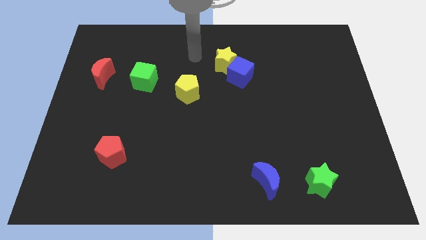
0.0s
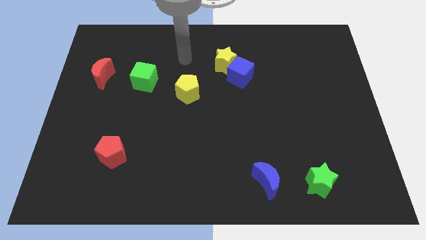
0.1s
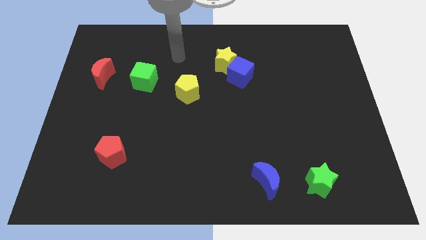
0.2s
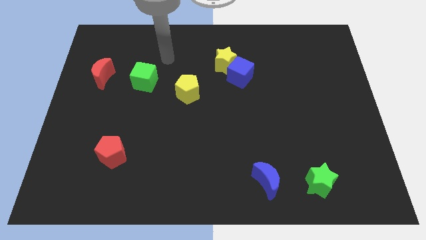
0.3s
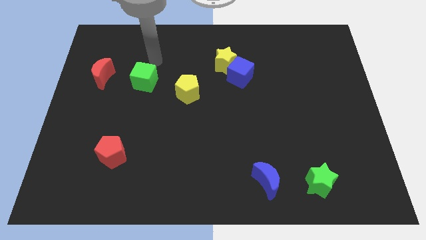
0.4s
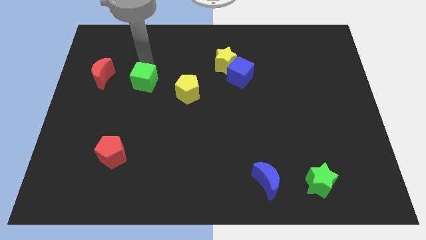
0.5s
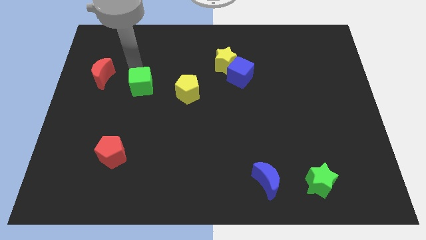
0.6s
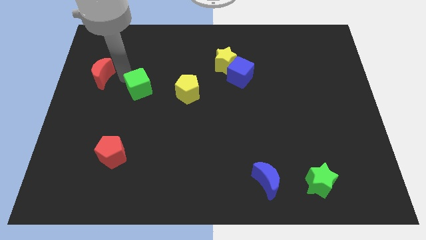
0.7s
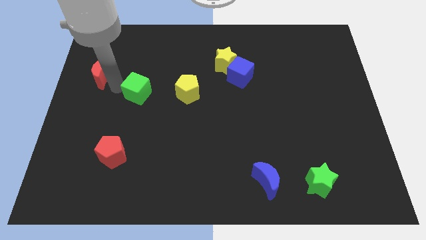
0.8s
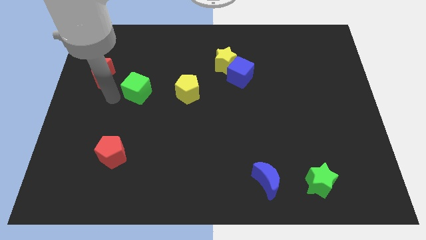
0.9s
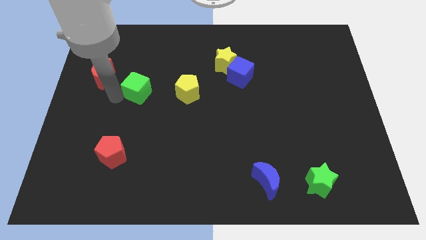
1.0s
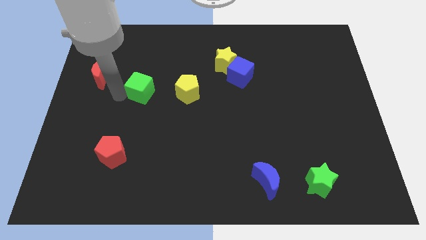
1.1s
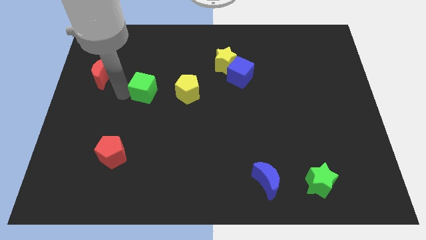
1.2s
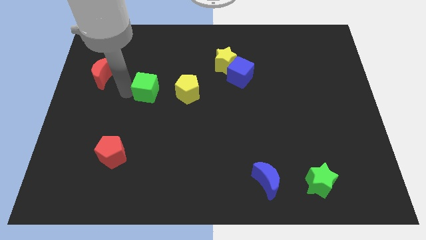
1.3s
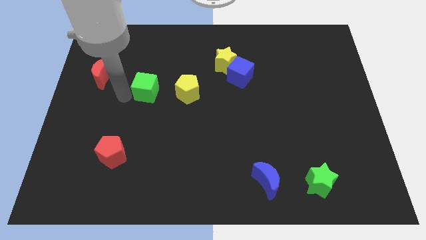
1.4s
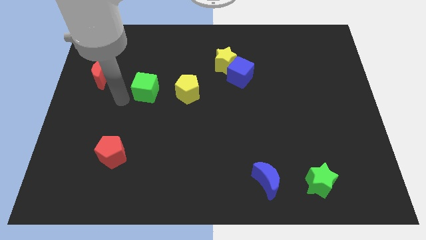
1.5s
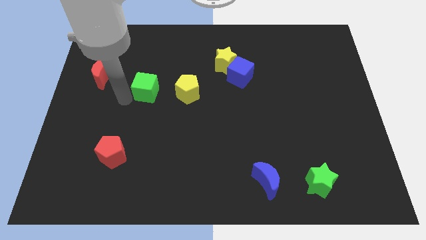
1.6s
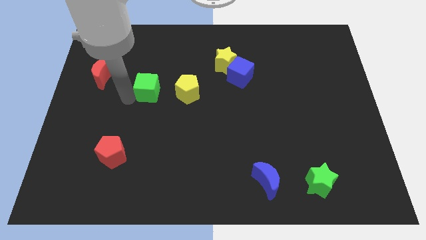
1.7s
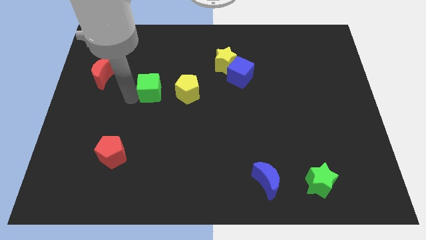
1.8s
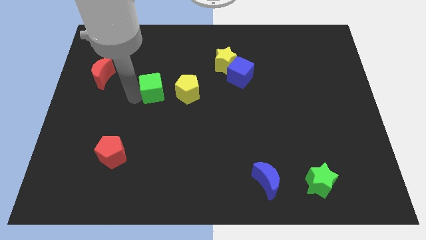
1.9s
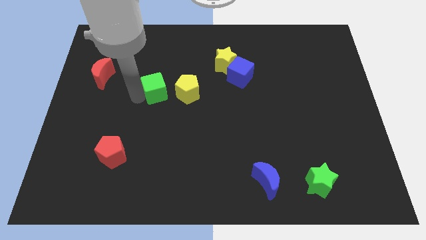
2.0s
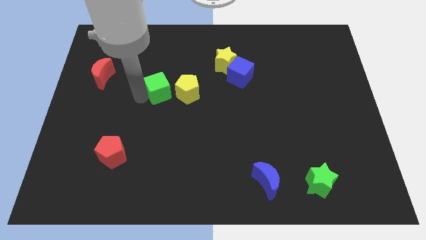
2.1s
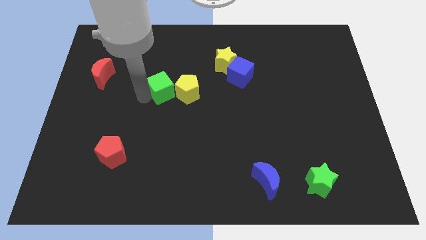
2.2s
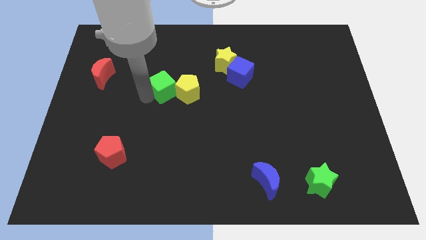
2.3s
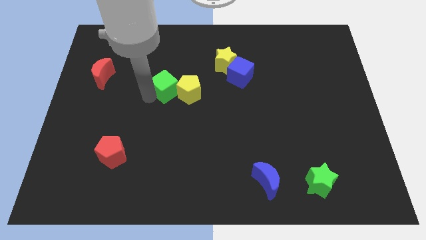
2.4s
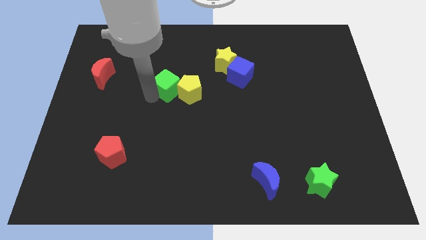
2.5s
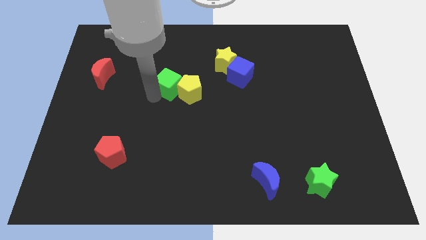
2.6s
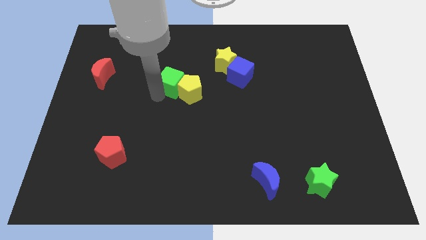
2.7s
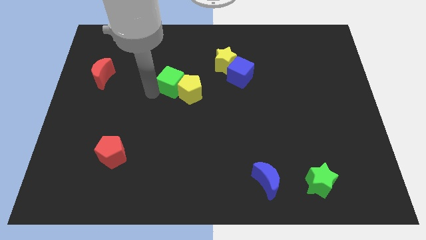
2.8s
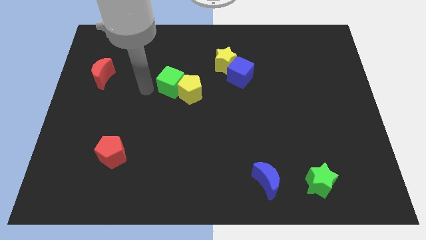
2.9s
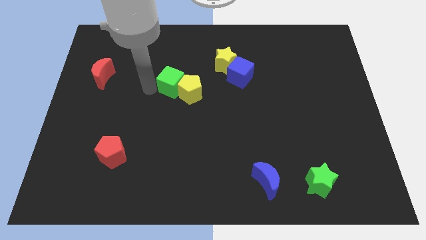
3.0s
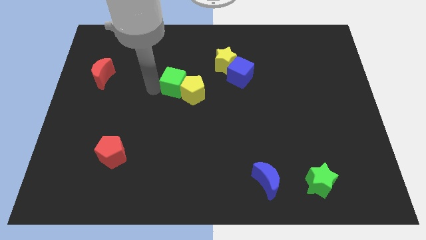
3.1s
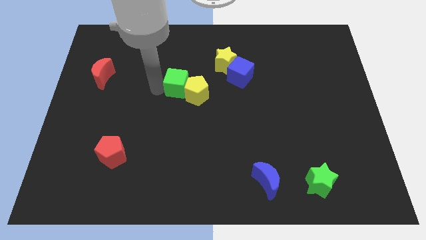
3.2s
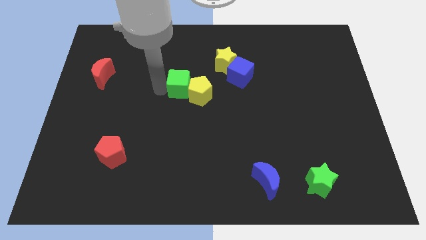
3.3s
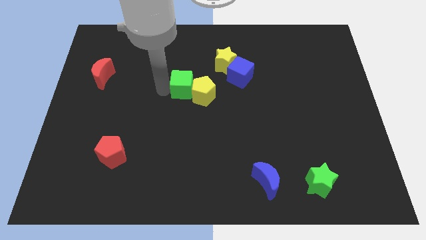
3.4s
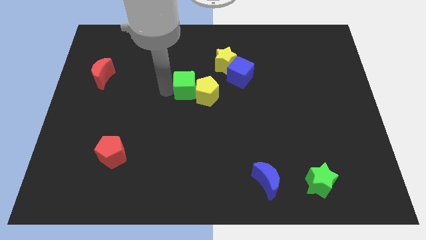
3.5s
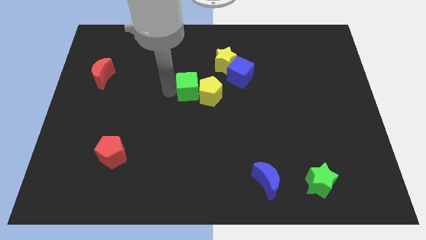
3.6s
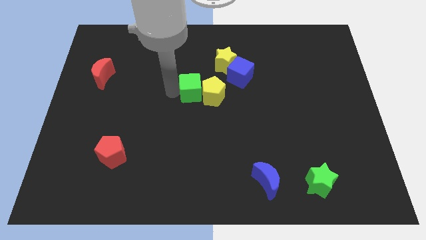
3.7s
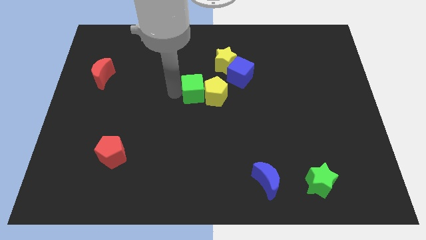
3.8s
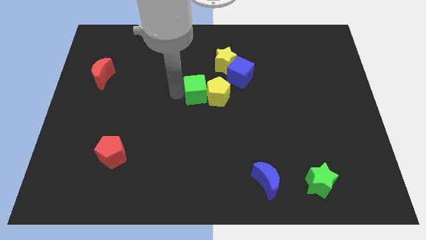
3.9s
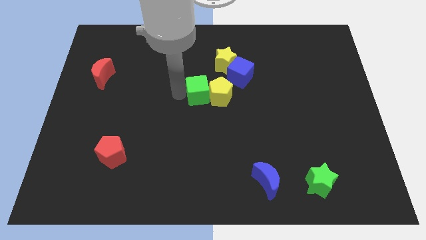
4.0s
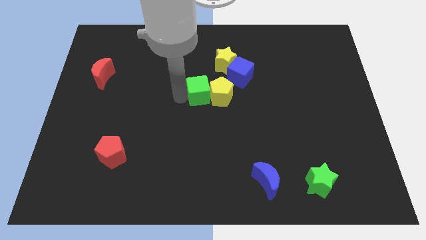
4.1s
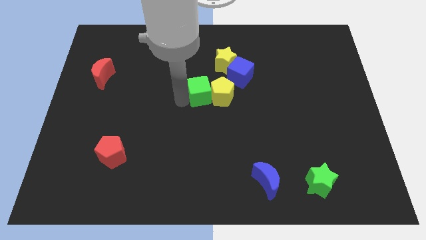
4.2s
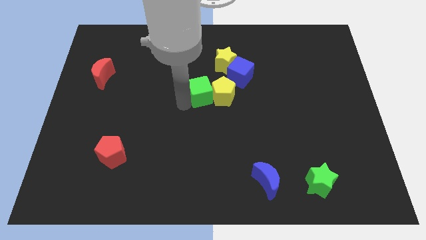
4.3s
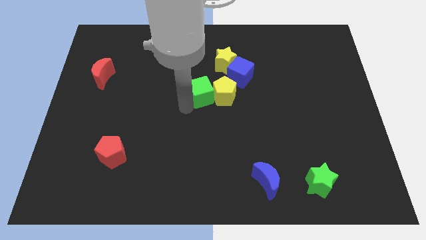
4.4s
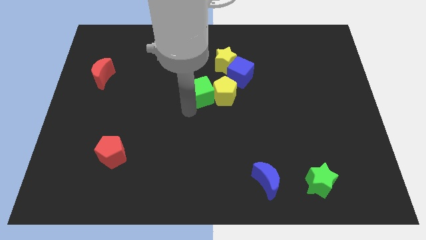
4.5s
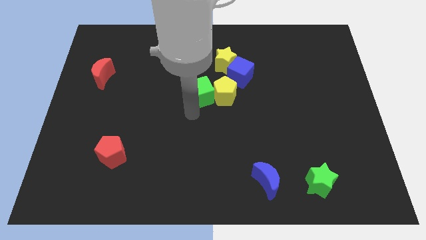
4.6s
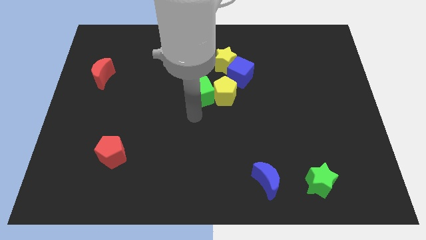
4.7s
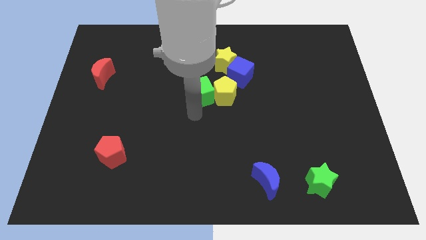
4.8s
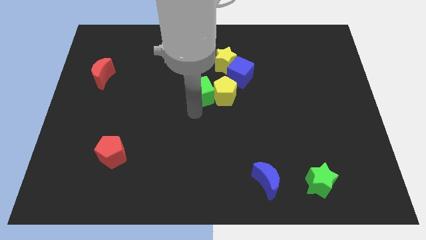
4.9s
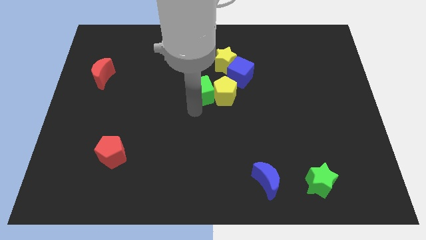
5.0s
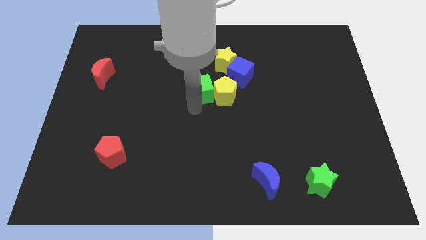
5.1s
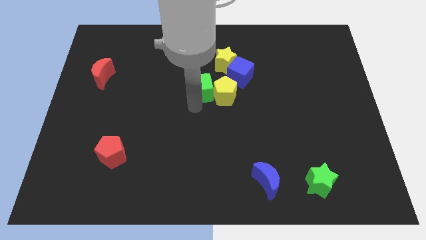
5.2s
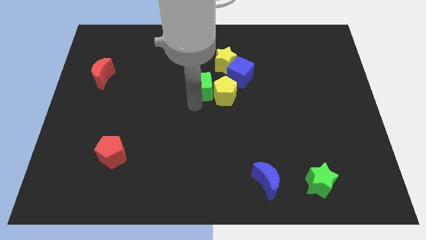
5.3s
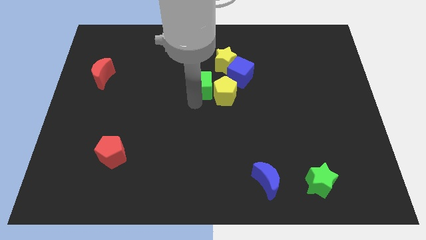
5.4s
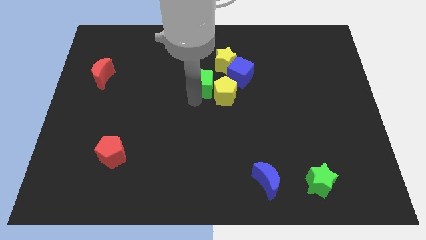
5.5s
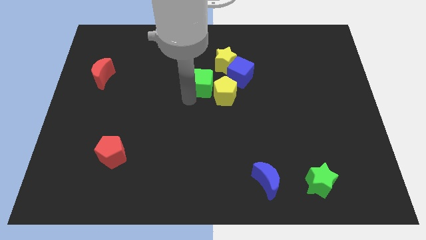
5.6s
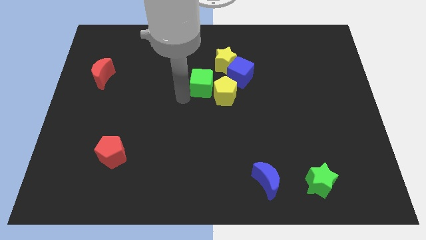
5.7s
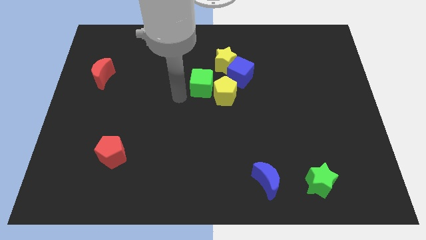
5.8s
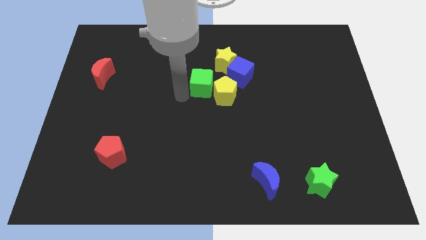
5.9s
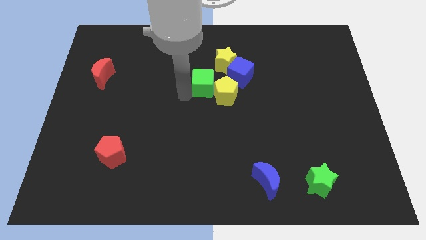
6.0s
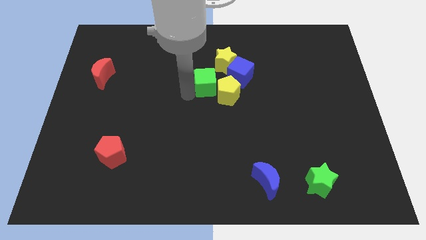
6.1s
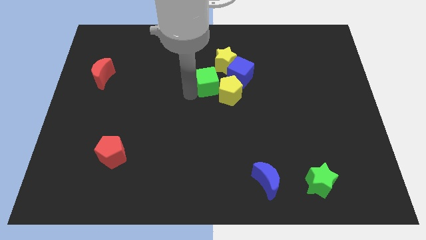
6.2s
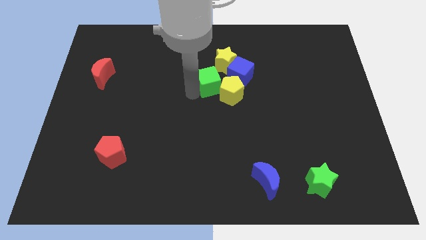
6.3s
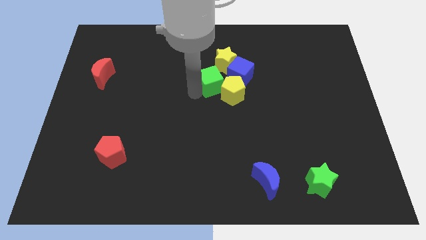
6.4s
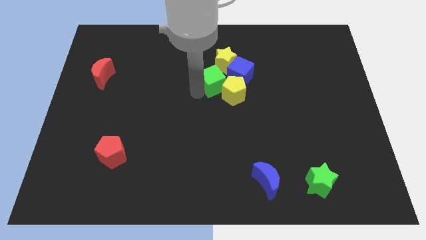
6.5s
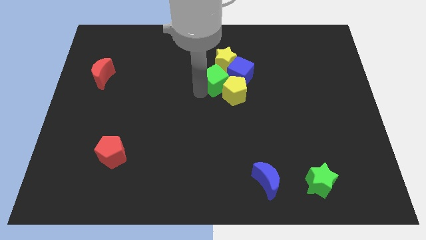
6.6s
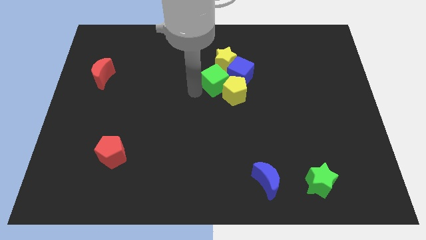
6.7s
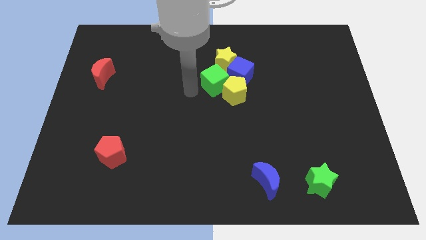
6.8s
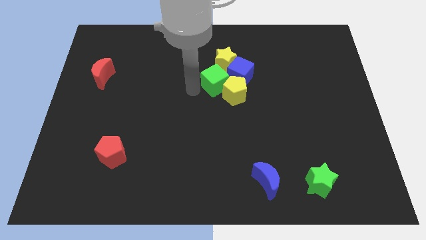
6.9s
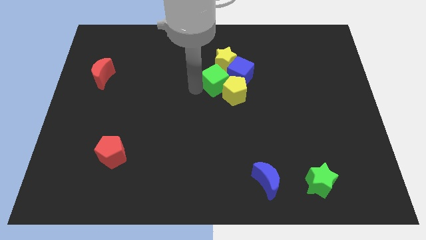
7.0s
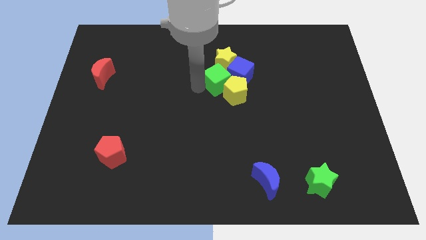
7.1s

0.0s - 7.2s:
put the green cube towards the blue cube
